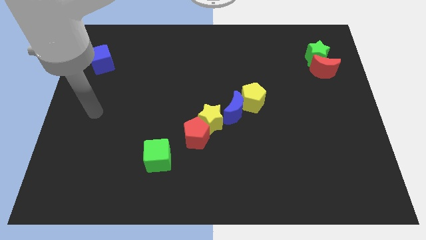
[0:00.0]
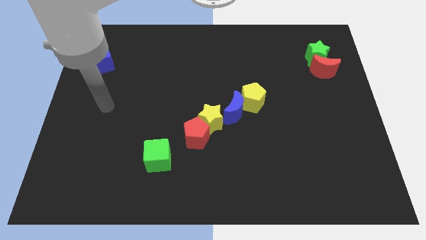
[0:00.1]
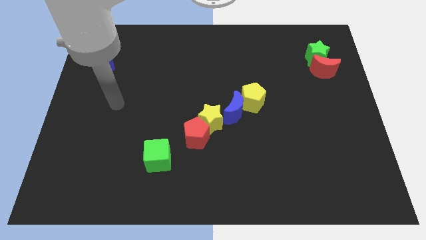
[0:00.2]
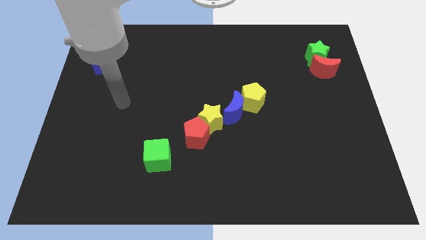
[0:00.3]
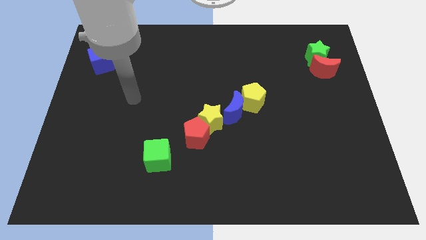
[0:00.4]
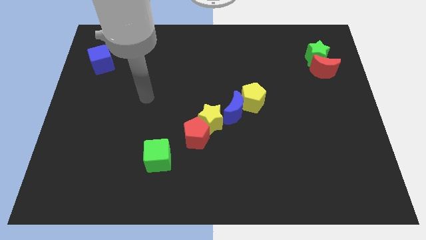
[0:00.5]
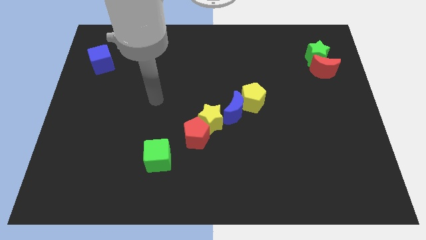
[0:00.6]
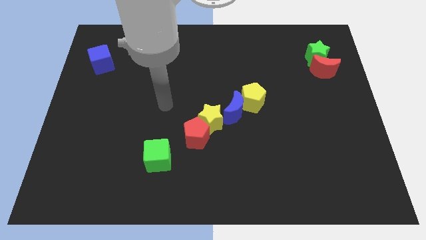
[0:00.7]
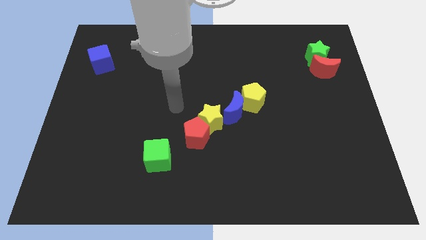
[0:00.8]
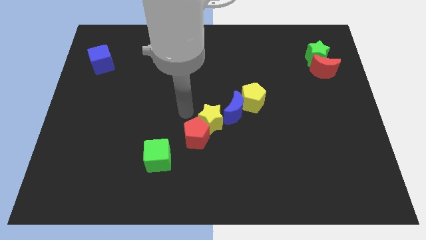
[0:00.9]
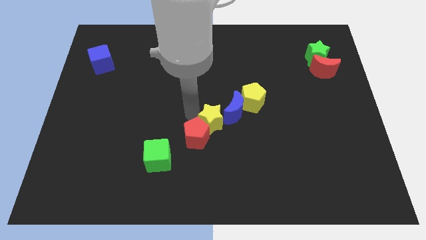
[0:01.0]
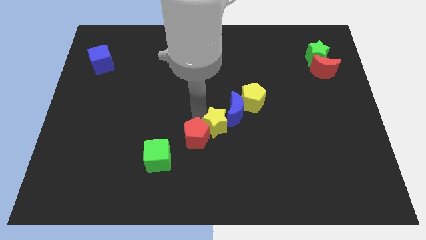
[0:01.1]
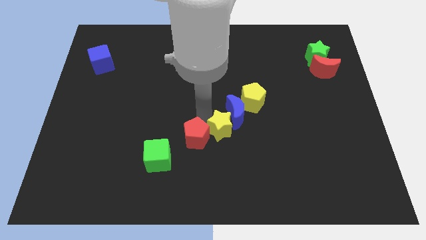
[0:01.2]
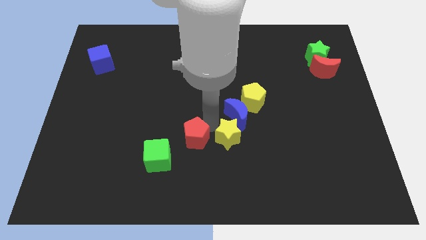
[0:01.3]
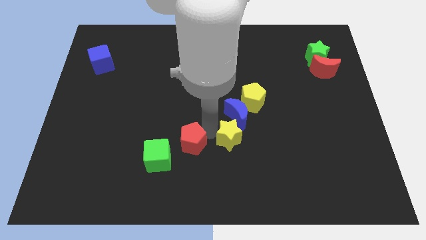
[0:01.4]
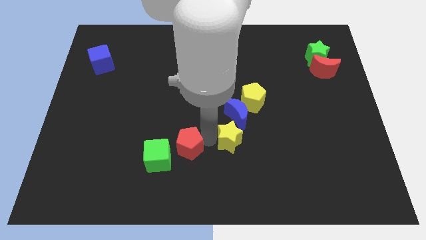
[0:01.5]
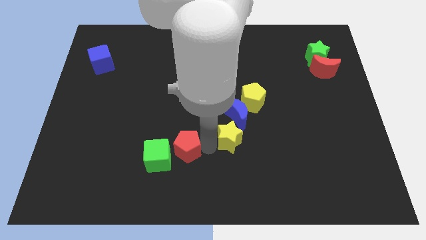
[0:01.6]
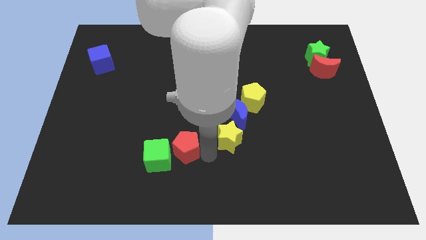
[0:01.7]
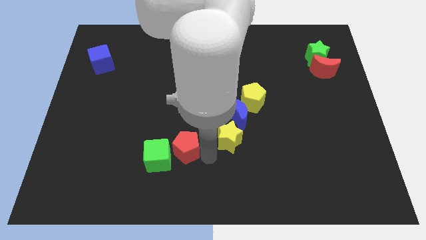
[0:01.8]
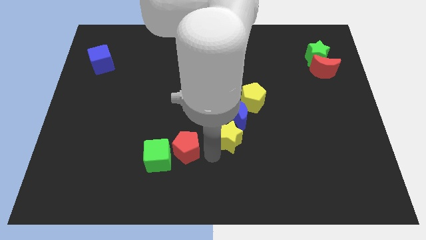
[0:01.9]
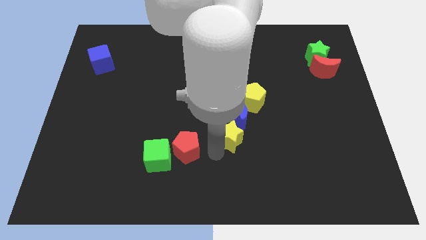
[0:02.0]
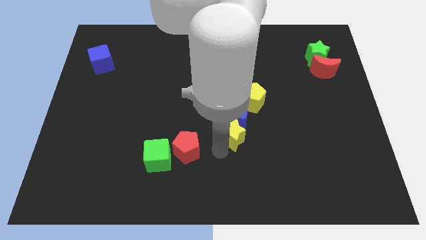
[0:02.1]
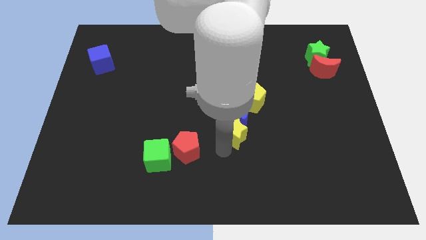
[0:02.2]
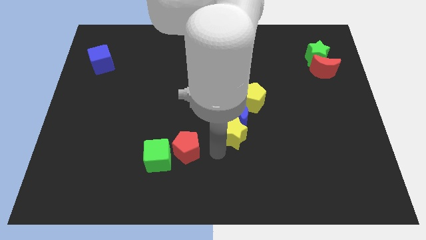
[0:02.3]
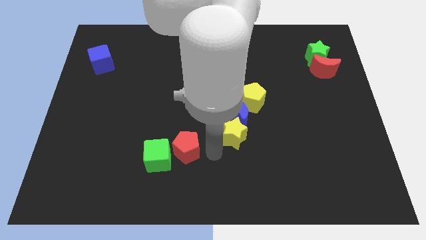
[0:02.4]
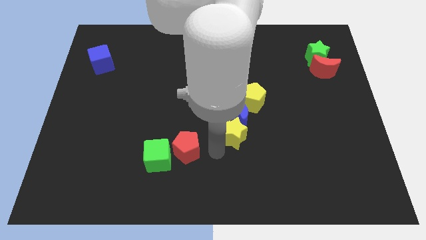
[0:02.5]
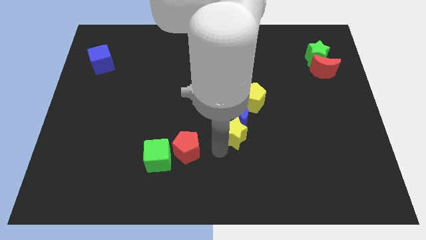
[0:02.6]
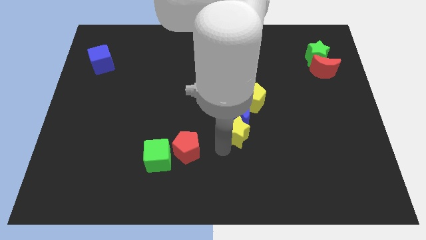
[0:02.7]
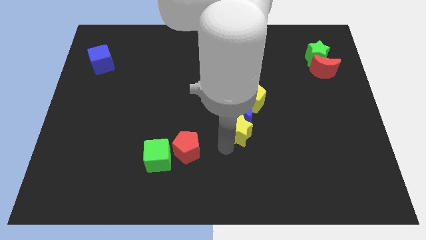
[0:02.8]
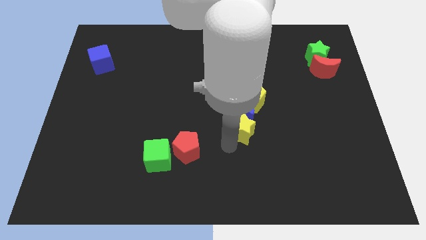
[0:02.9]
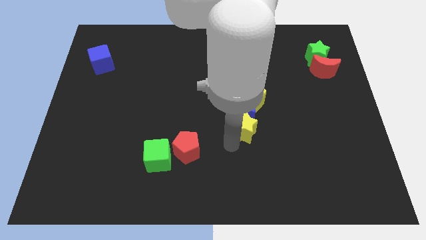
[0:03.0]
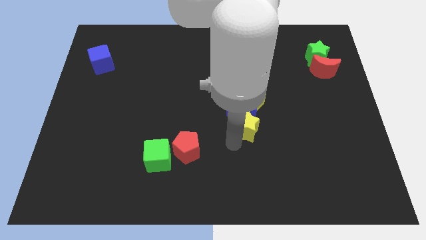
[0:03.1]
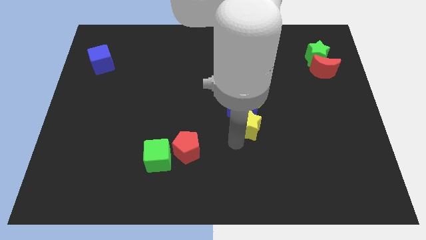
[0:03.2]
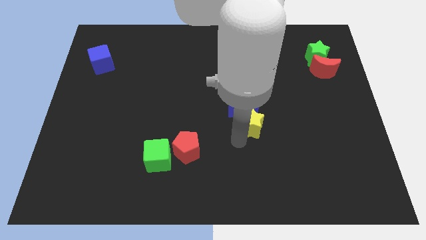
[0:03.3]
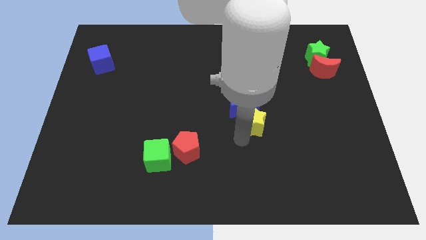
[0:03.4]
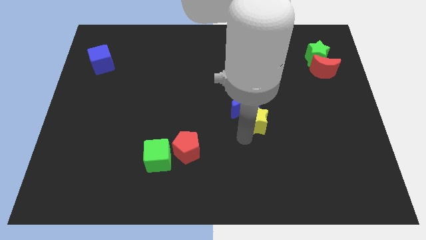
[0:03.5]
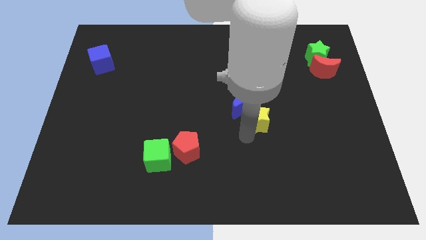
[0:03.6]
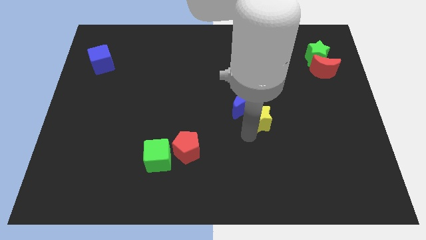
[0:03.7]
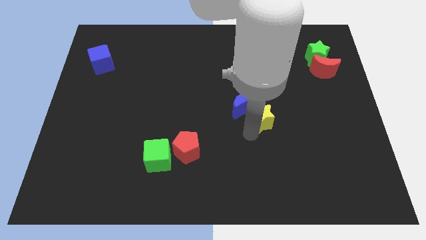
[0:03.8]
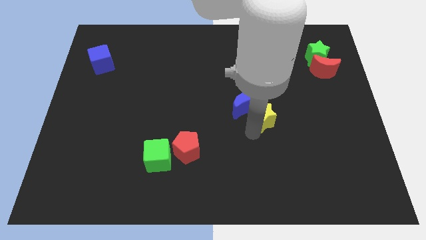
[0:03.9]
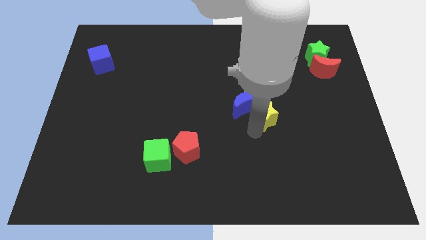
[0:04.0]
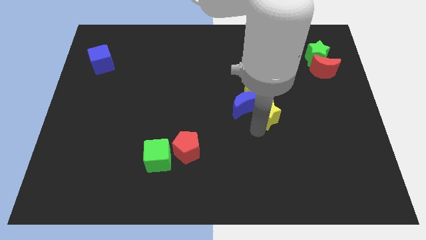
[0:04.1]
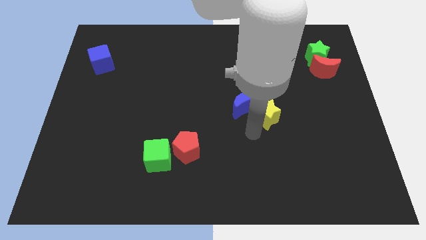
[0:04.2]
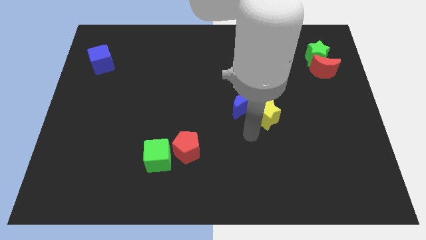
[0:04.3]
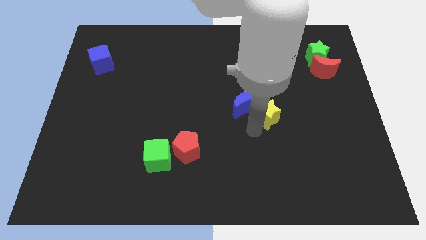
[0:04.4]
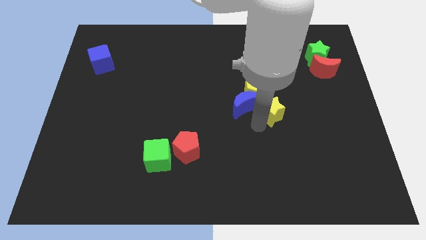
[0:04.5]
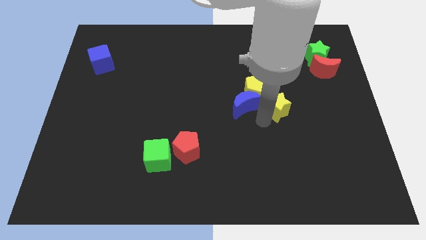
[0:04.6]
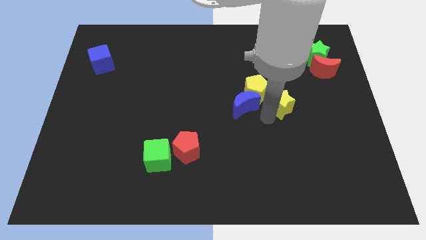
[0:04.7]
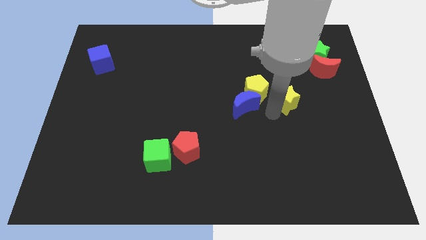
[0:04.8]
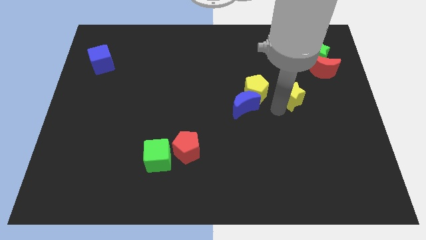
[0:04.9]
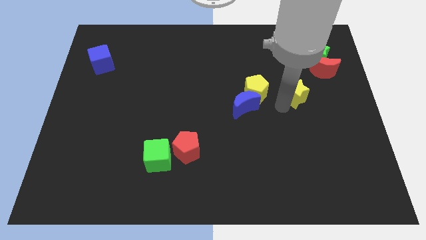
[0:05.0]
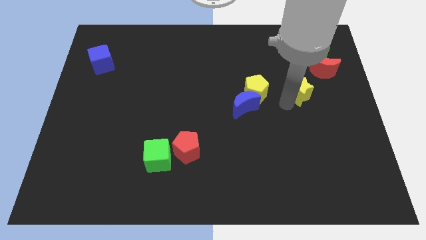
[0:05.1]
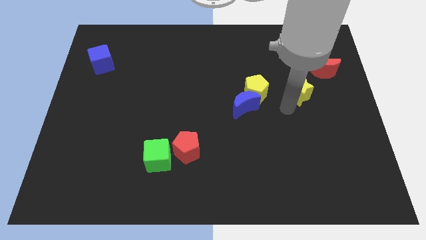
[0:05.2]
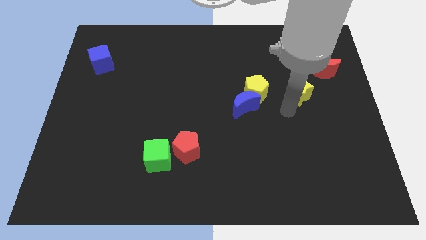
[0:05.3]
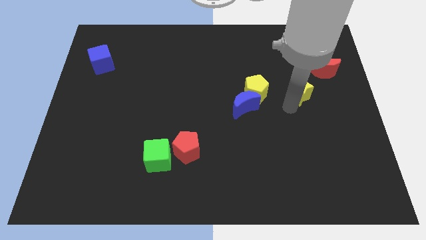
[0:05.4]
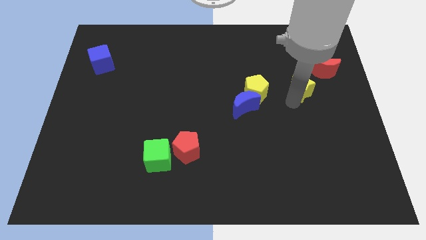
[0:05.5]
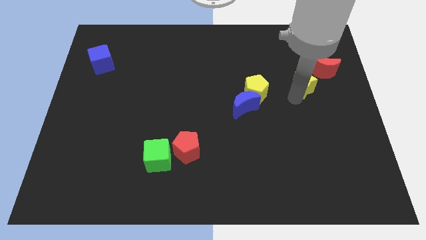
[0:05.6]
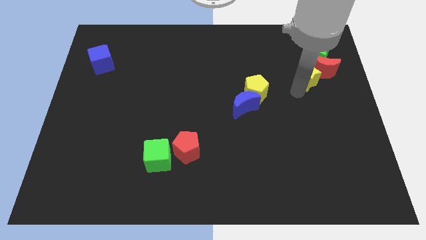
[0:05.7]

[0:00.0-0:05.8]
push the yellow star towards the red moon

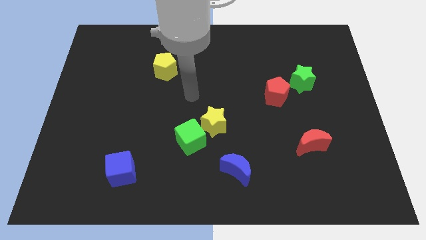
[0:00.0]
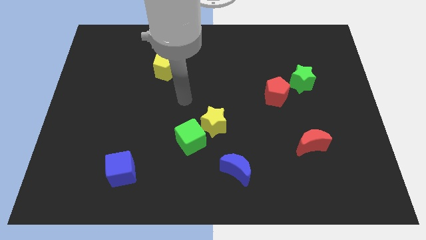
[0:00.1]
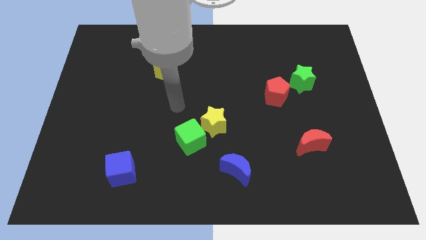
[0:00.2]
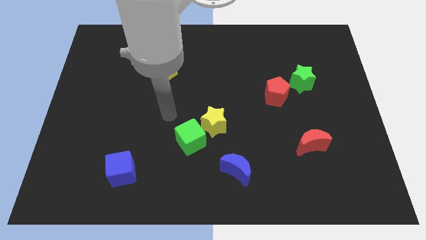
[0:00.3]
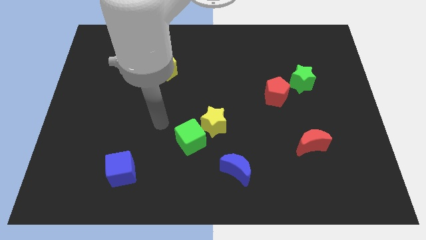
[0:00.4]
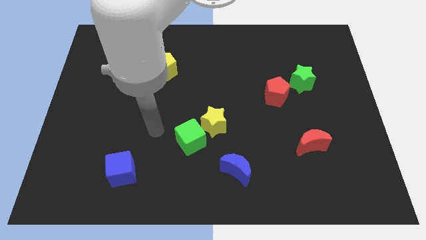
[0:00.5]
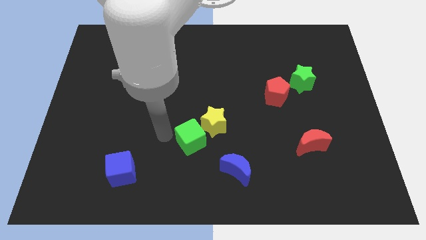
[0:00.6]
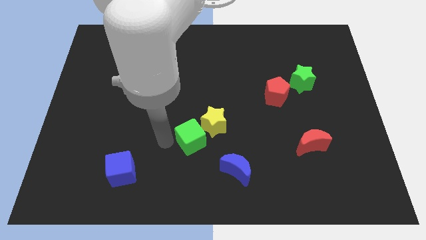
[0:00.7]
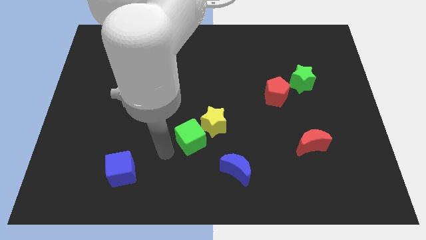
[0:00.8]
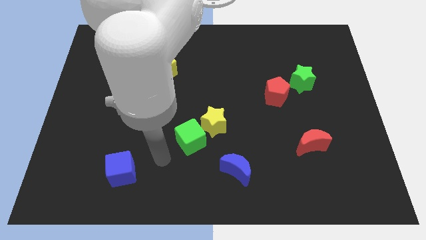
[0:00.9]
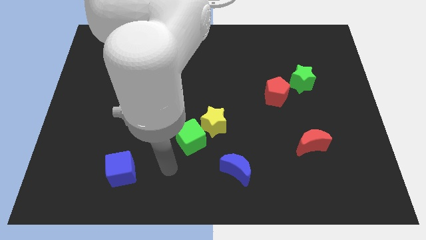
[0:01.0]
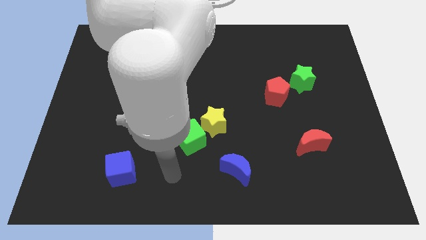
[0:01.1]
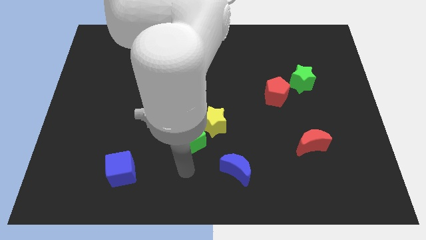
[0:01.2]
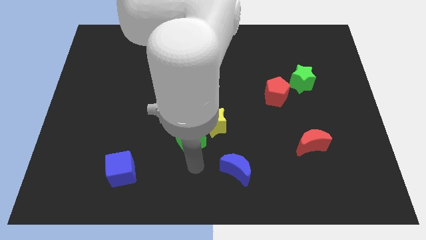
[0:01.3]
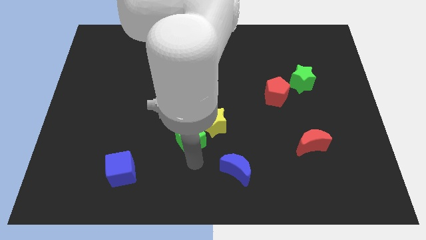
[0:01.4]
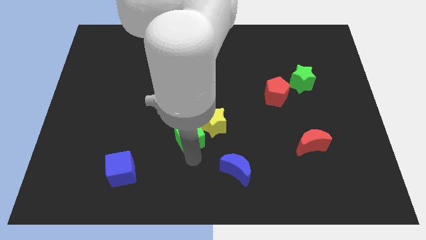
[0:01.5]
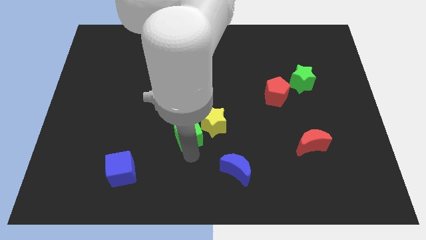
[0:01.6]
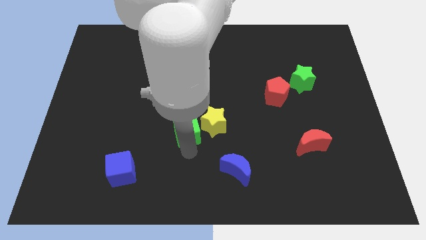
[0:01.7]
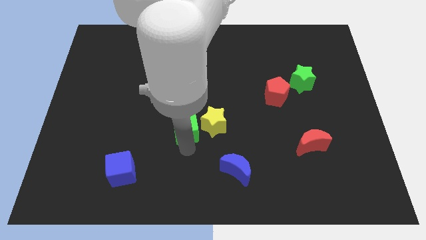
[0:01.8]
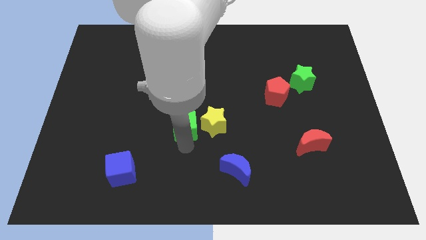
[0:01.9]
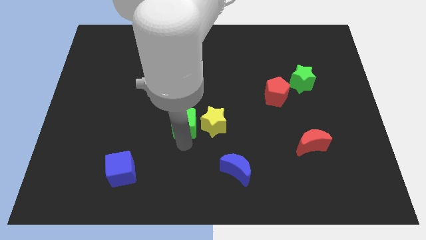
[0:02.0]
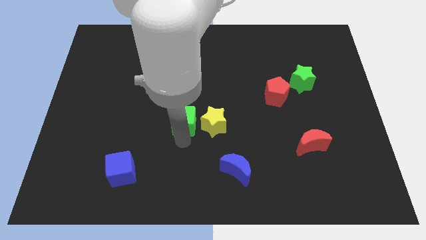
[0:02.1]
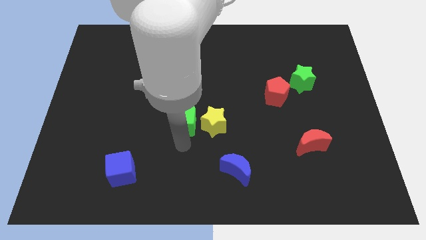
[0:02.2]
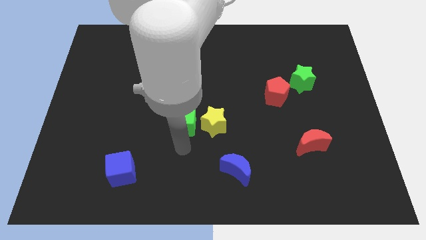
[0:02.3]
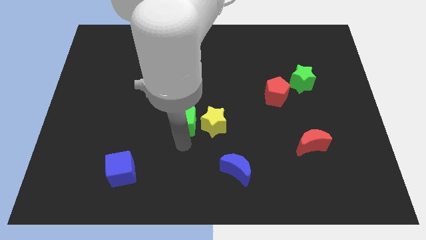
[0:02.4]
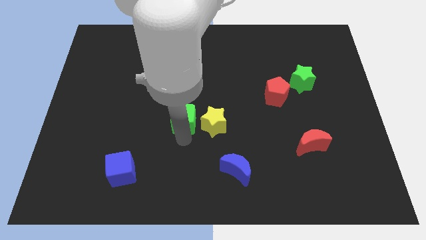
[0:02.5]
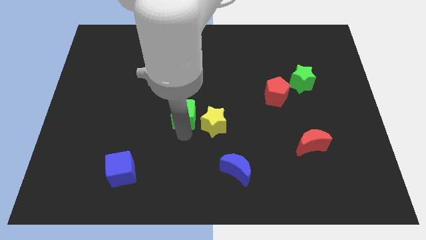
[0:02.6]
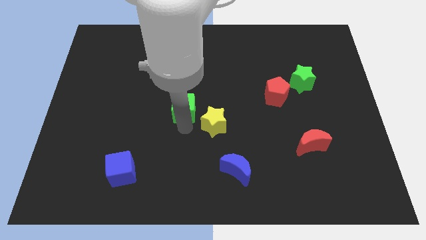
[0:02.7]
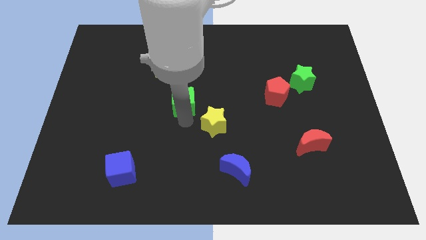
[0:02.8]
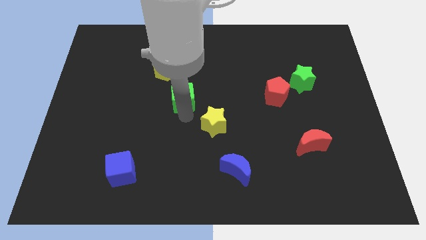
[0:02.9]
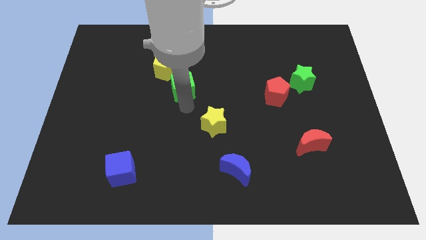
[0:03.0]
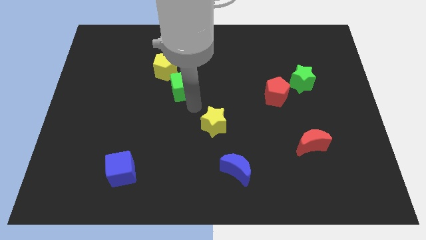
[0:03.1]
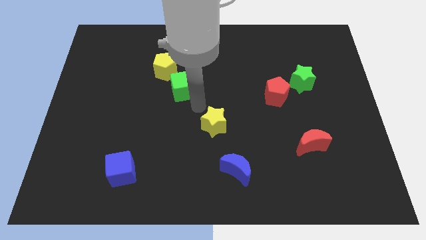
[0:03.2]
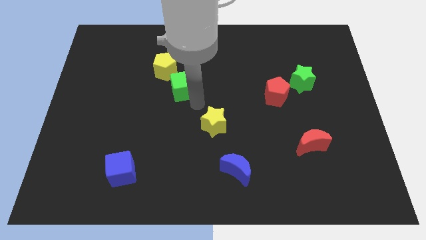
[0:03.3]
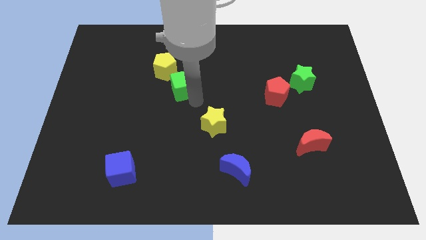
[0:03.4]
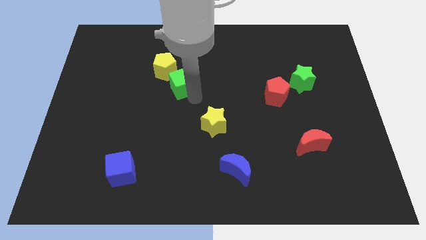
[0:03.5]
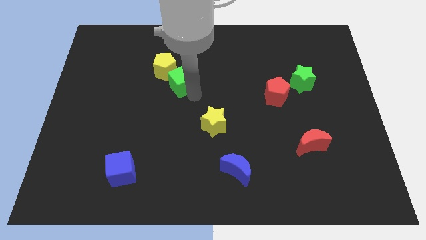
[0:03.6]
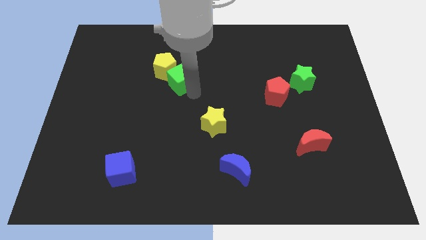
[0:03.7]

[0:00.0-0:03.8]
slide the green cube next to the yellow pentagon
